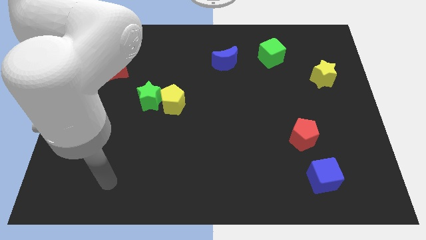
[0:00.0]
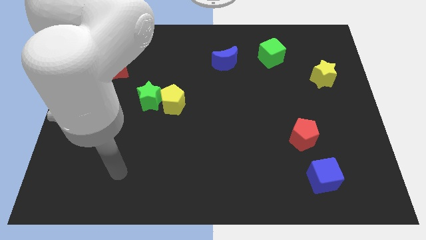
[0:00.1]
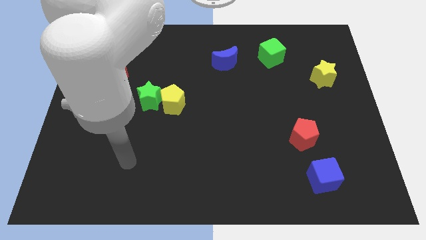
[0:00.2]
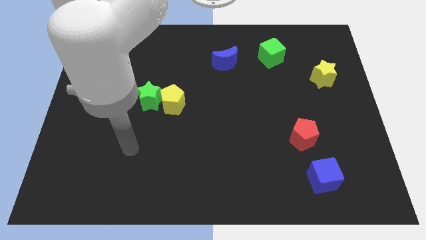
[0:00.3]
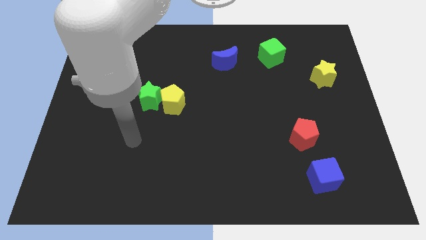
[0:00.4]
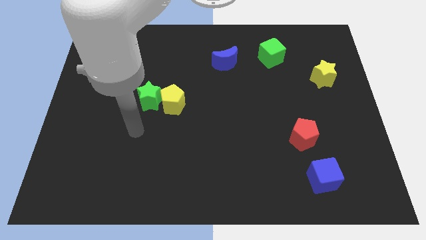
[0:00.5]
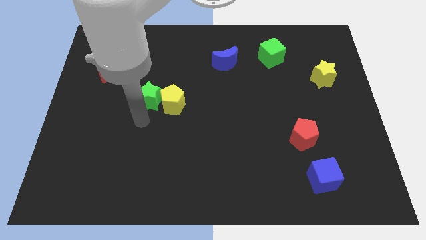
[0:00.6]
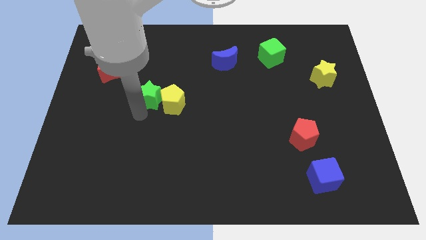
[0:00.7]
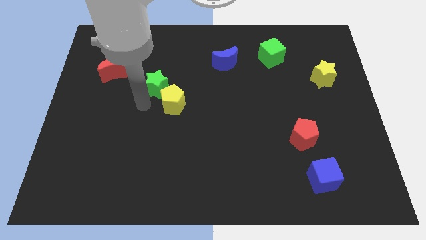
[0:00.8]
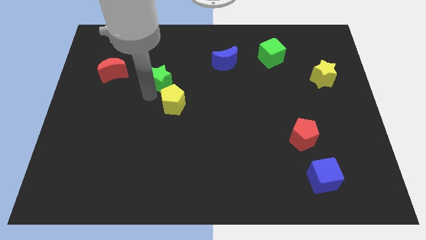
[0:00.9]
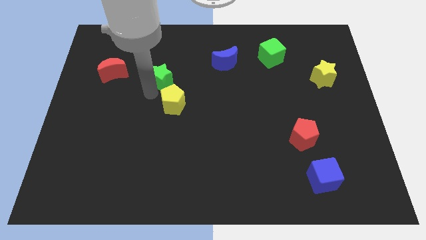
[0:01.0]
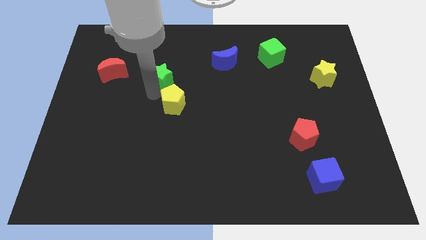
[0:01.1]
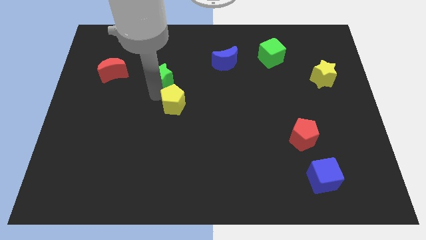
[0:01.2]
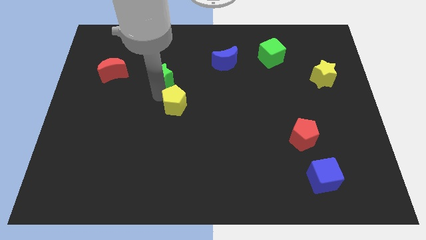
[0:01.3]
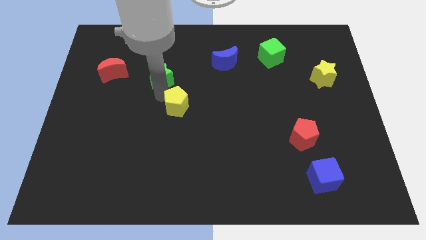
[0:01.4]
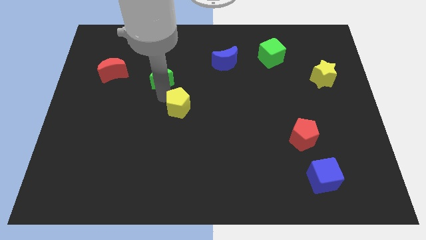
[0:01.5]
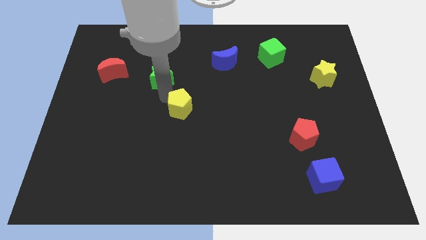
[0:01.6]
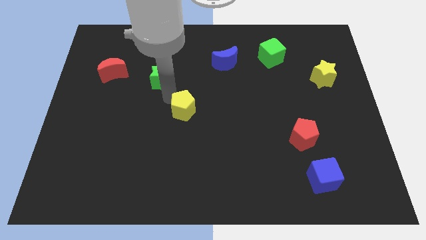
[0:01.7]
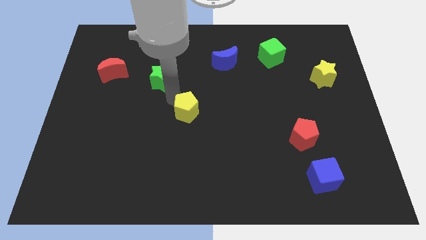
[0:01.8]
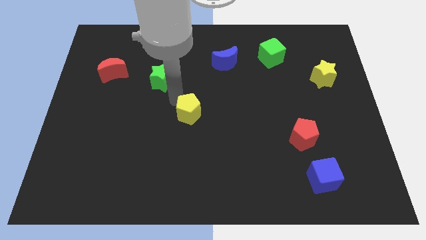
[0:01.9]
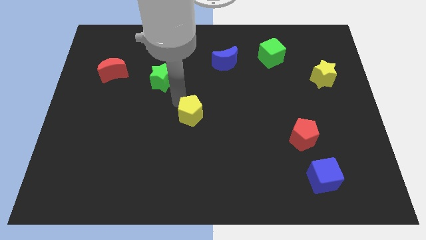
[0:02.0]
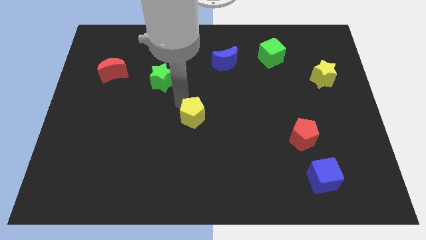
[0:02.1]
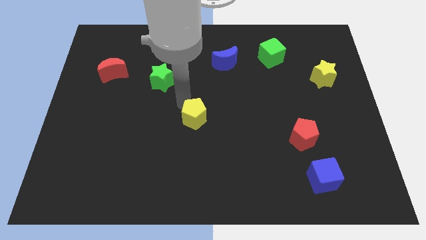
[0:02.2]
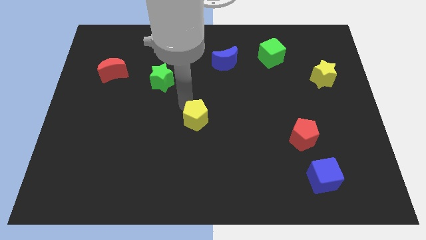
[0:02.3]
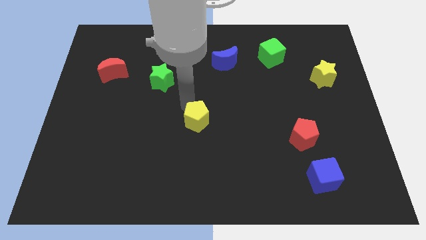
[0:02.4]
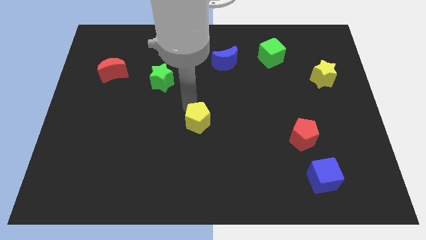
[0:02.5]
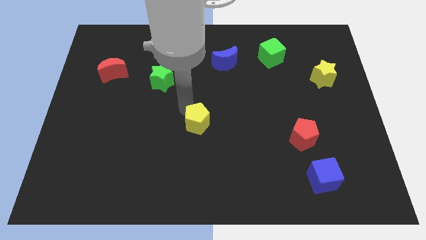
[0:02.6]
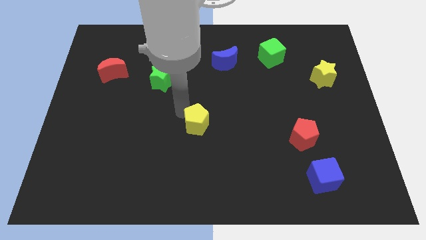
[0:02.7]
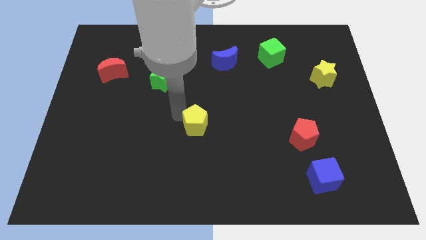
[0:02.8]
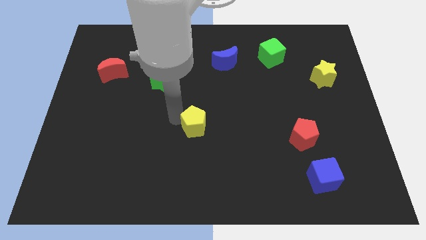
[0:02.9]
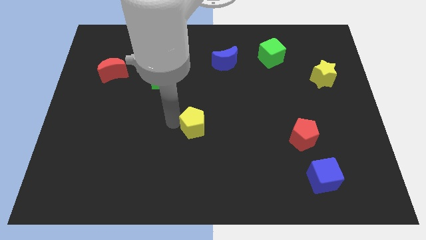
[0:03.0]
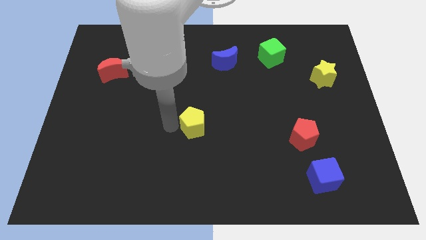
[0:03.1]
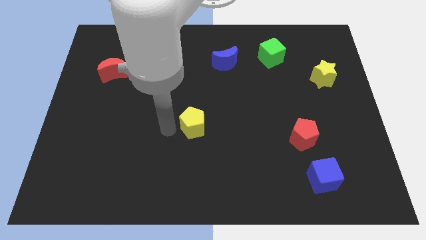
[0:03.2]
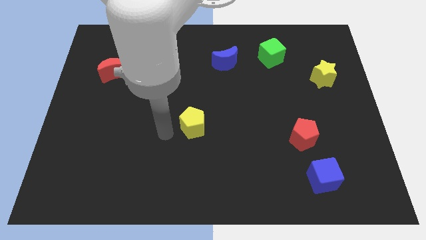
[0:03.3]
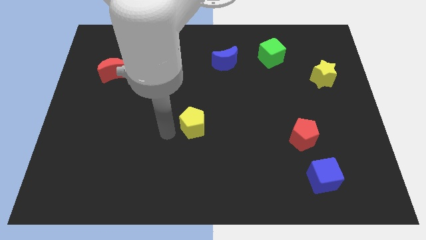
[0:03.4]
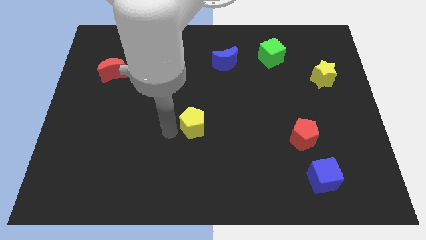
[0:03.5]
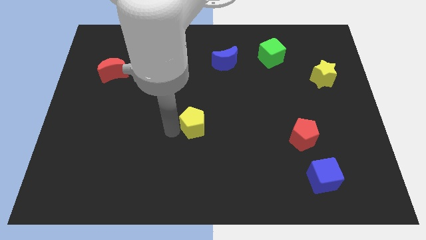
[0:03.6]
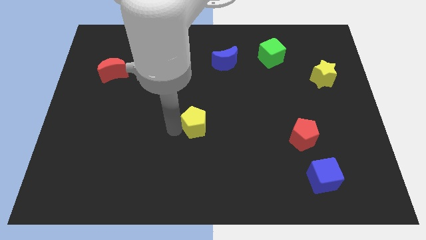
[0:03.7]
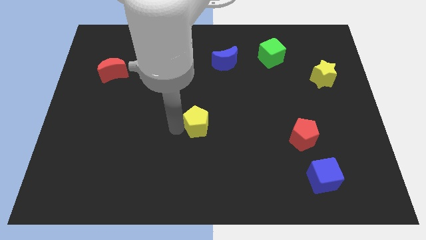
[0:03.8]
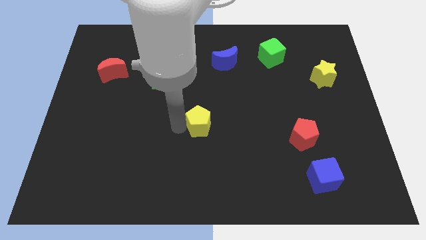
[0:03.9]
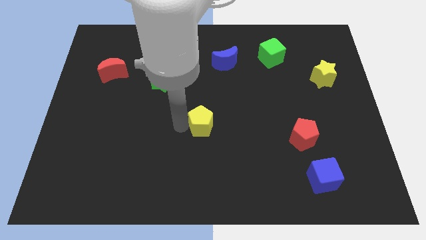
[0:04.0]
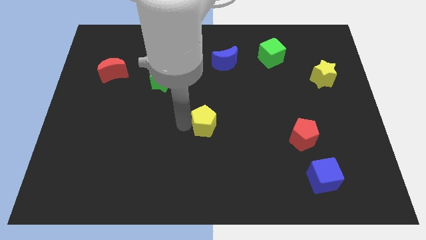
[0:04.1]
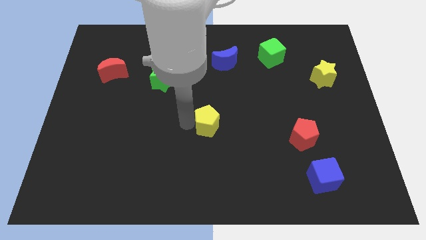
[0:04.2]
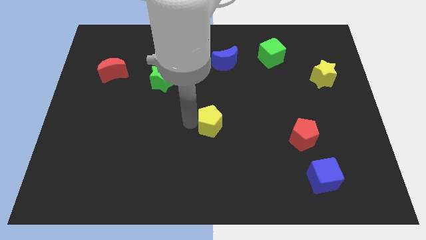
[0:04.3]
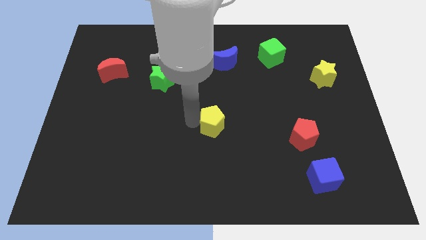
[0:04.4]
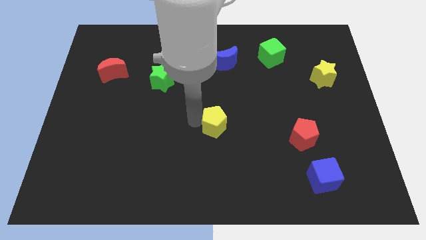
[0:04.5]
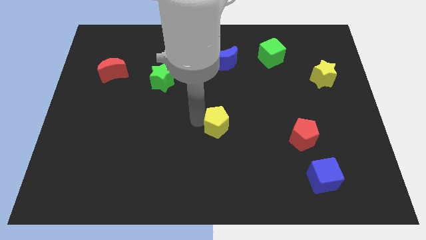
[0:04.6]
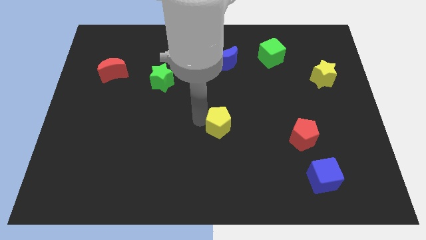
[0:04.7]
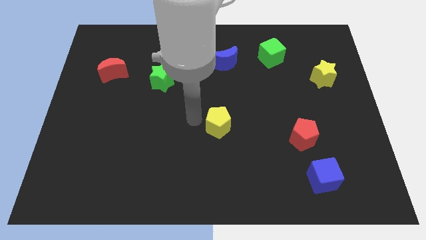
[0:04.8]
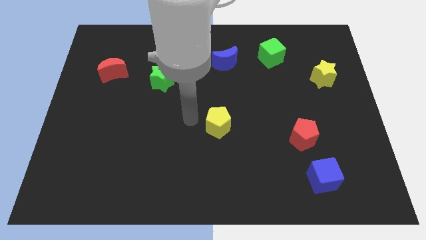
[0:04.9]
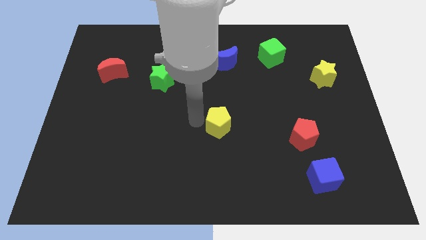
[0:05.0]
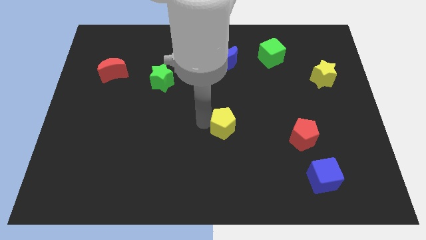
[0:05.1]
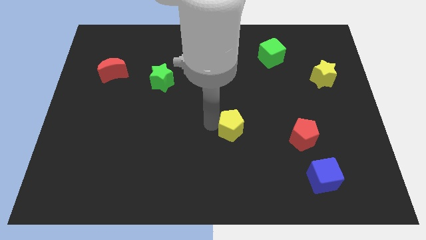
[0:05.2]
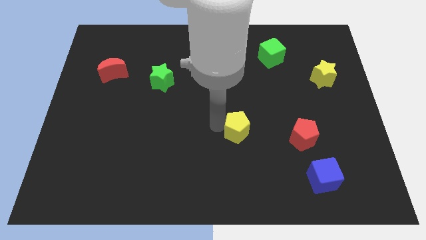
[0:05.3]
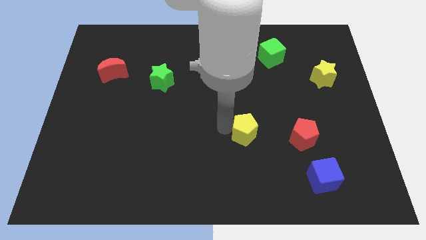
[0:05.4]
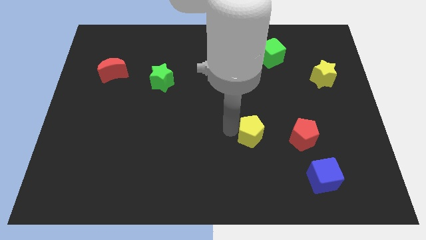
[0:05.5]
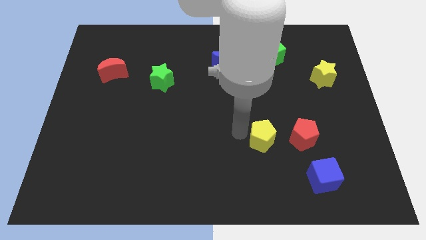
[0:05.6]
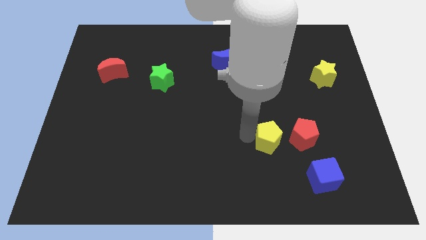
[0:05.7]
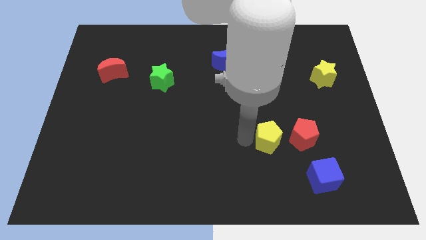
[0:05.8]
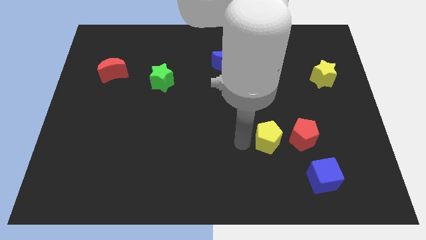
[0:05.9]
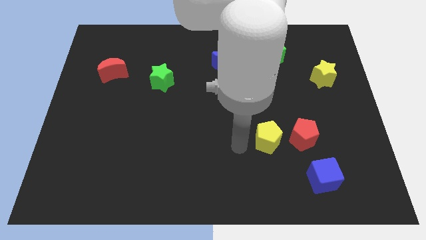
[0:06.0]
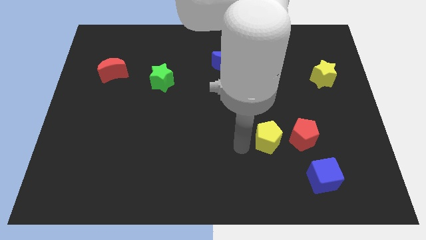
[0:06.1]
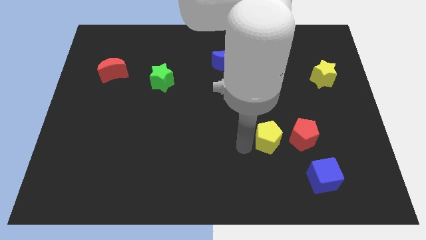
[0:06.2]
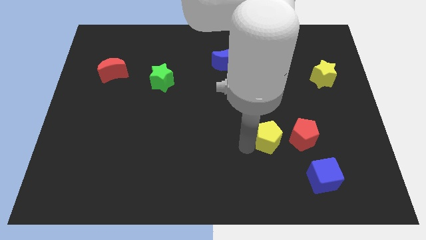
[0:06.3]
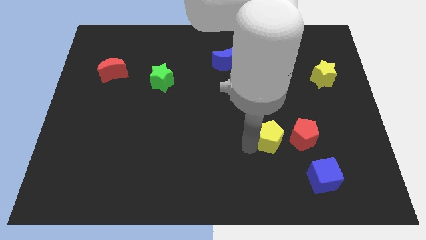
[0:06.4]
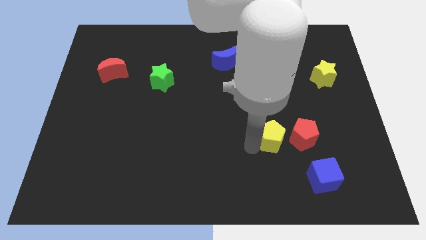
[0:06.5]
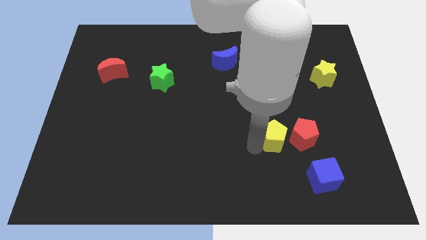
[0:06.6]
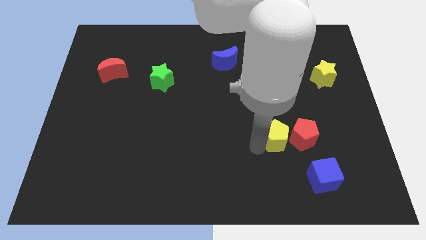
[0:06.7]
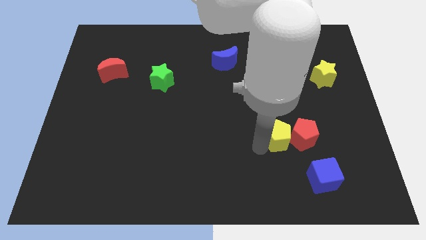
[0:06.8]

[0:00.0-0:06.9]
push the yellow pentagon next to the red pentagon
